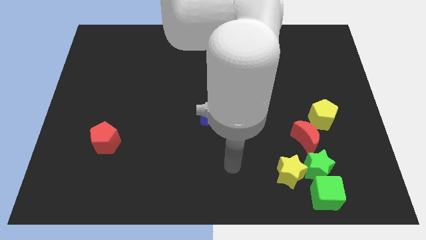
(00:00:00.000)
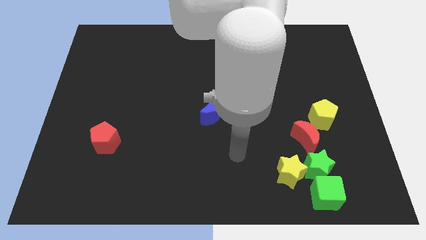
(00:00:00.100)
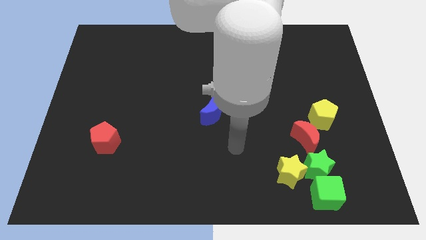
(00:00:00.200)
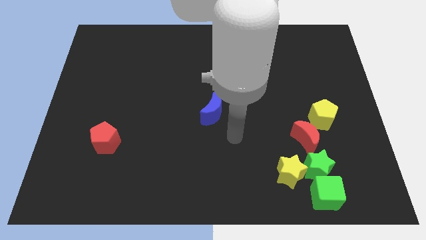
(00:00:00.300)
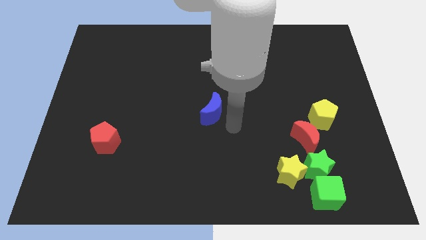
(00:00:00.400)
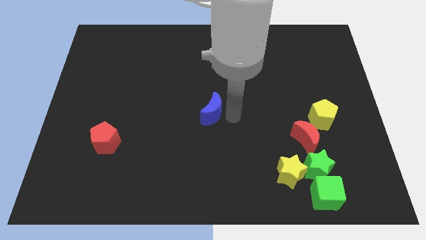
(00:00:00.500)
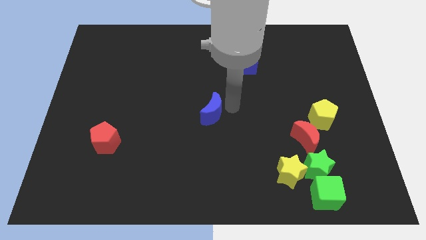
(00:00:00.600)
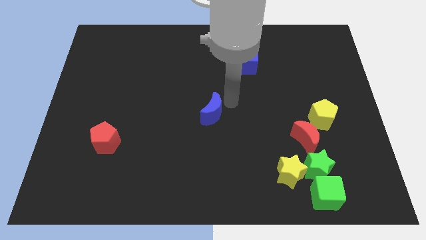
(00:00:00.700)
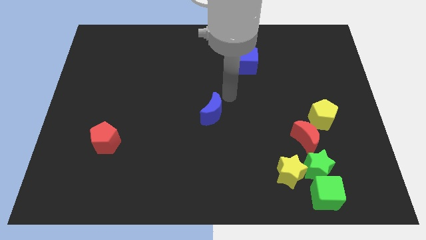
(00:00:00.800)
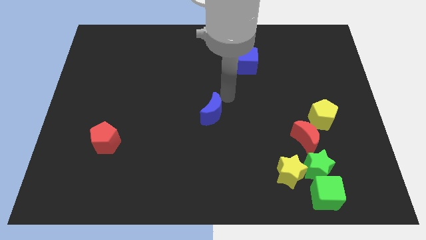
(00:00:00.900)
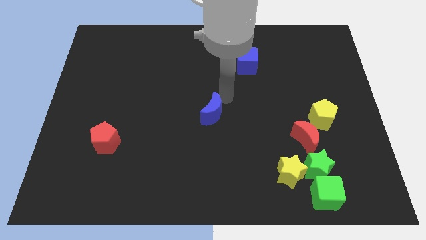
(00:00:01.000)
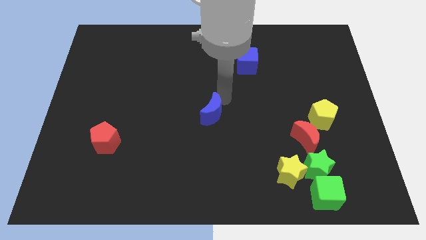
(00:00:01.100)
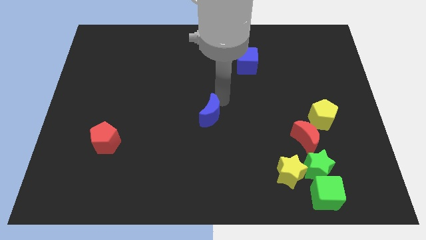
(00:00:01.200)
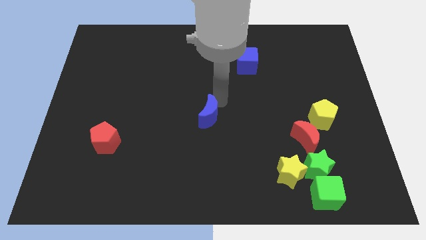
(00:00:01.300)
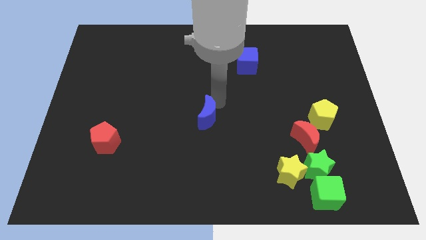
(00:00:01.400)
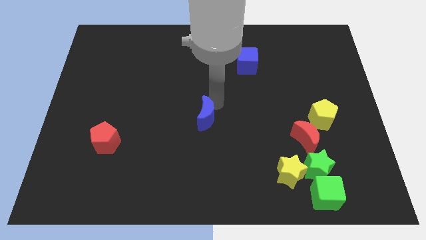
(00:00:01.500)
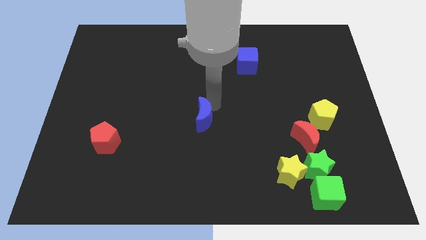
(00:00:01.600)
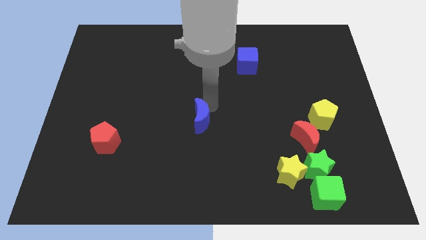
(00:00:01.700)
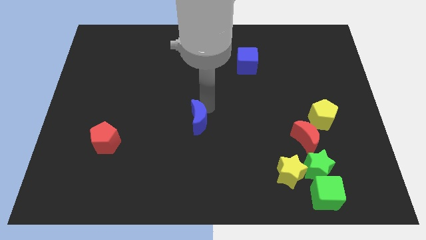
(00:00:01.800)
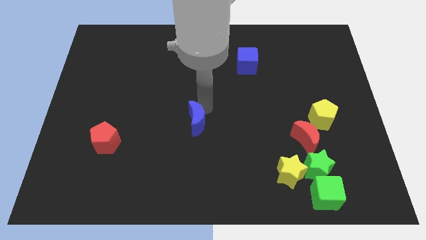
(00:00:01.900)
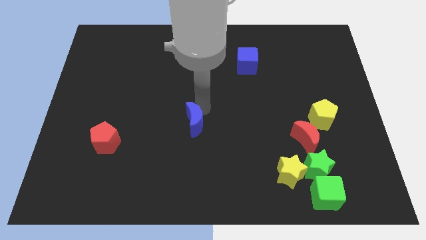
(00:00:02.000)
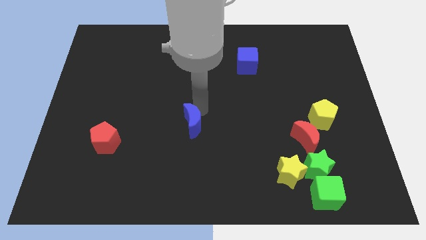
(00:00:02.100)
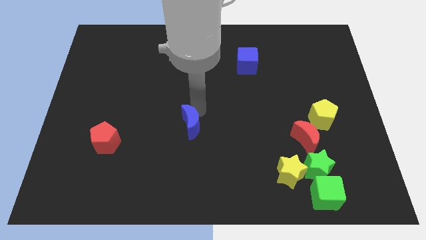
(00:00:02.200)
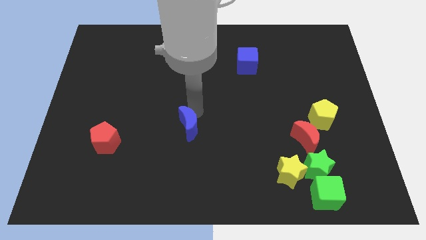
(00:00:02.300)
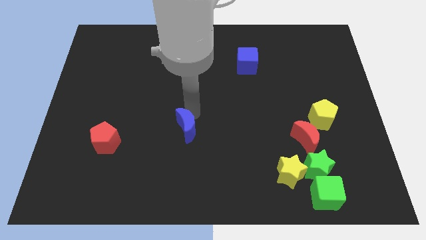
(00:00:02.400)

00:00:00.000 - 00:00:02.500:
push the blue moon a bit diagonally down and left

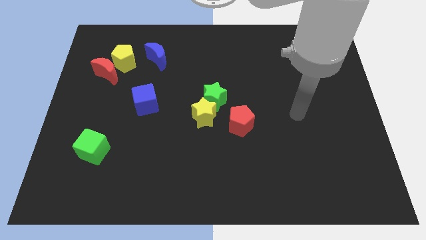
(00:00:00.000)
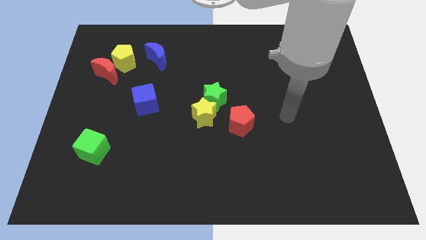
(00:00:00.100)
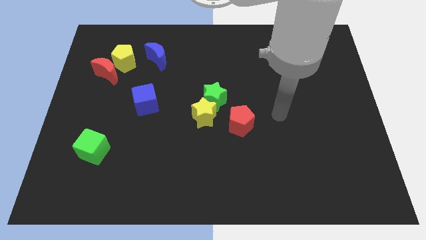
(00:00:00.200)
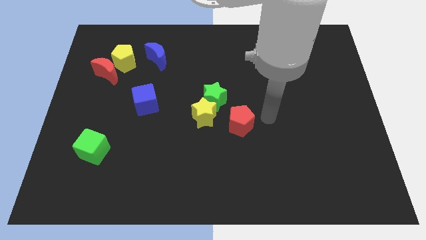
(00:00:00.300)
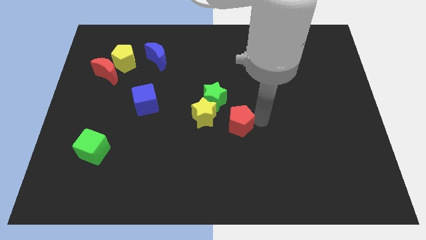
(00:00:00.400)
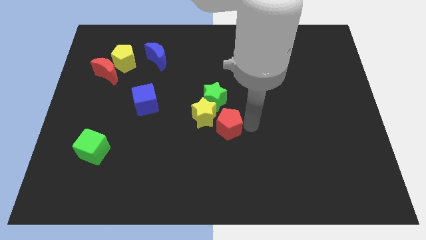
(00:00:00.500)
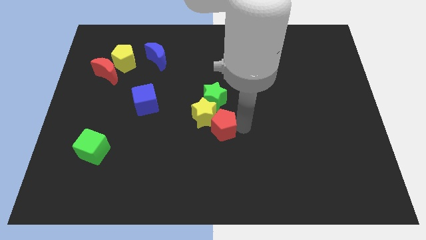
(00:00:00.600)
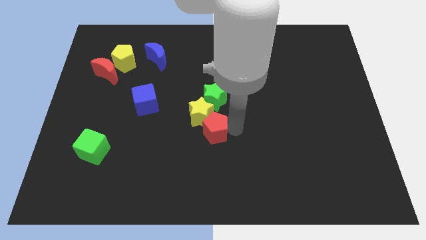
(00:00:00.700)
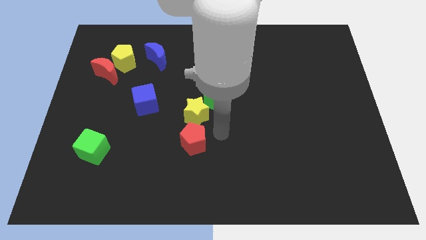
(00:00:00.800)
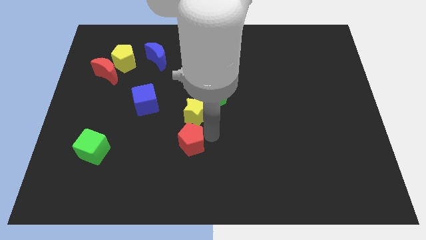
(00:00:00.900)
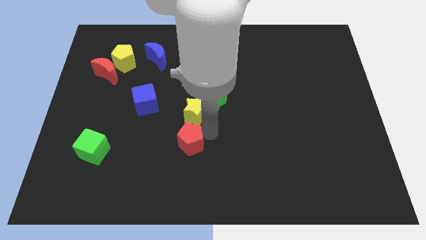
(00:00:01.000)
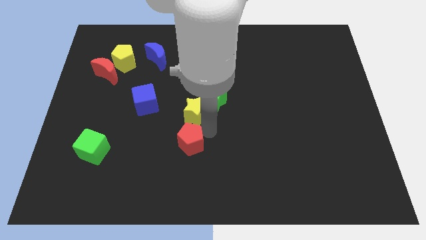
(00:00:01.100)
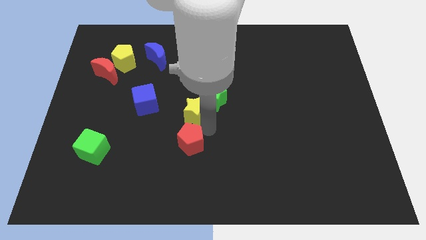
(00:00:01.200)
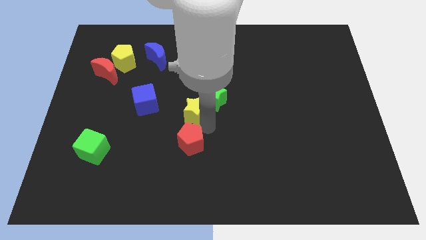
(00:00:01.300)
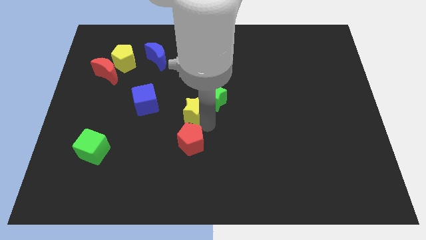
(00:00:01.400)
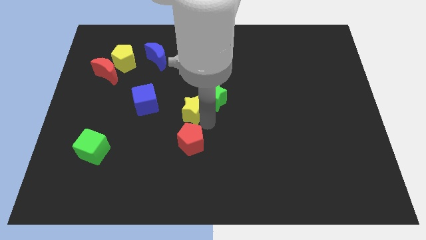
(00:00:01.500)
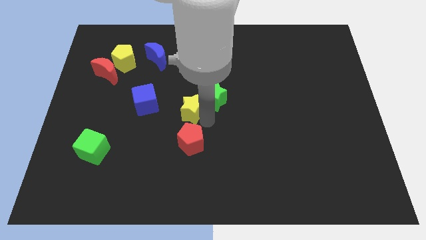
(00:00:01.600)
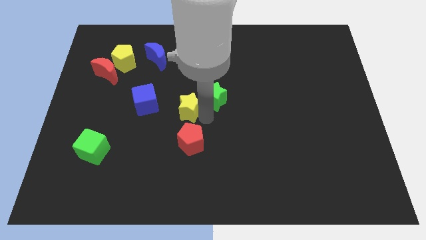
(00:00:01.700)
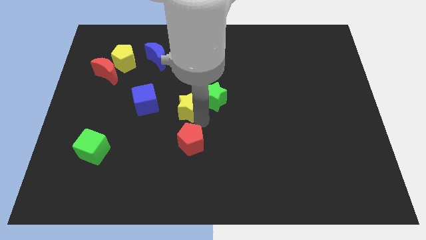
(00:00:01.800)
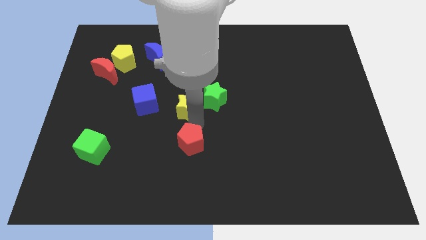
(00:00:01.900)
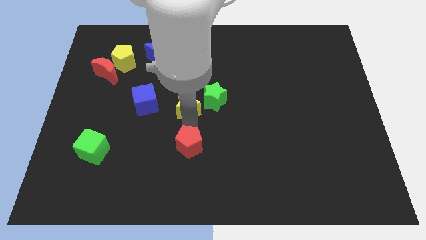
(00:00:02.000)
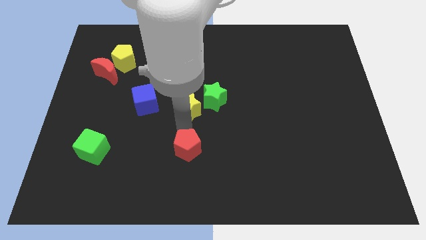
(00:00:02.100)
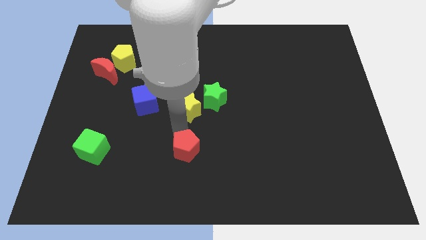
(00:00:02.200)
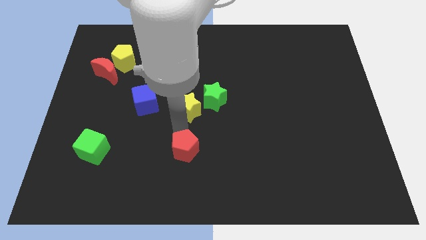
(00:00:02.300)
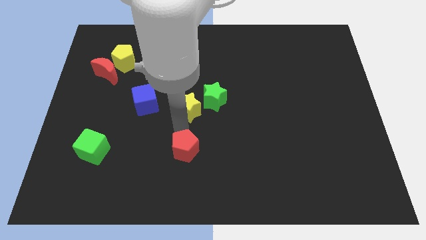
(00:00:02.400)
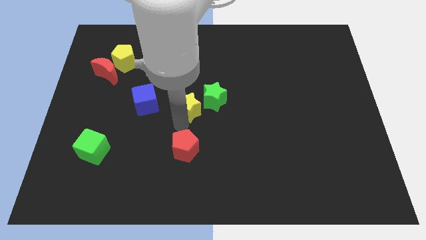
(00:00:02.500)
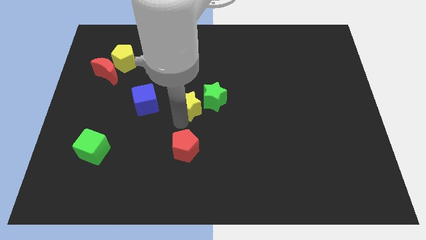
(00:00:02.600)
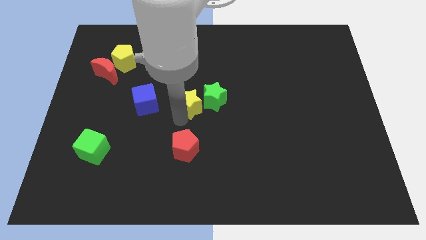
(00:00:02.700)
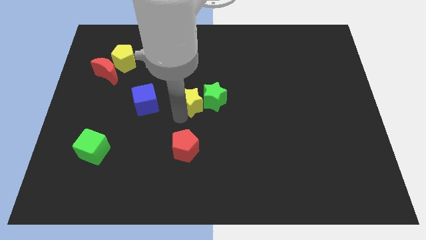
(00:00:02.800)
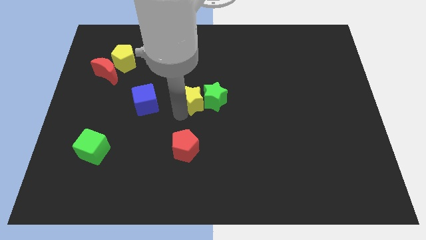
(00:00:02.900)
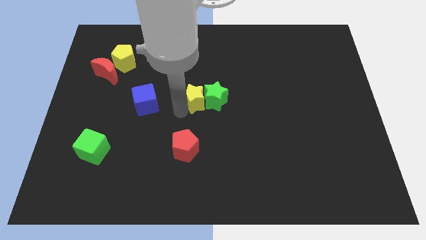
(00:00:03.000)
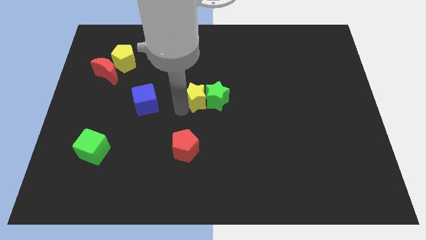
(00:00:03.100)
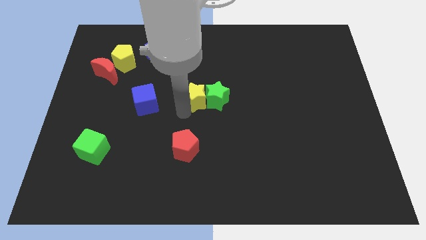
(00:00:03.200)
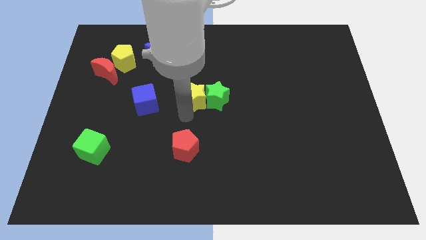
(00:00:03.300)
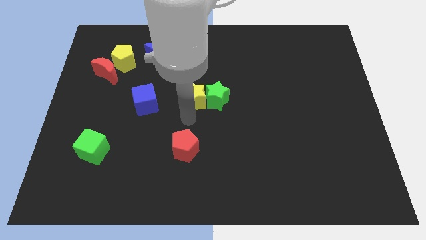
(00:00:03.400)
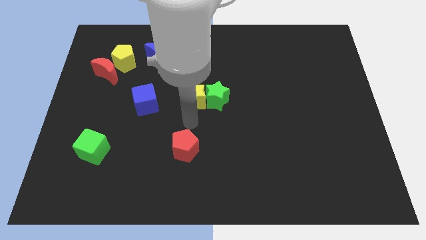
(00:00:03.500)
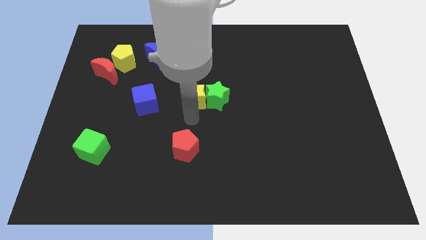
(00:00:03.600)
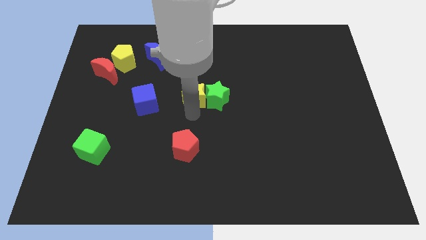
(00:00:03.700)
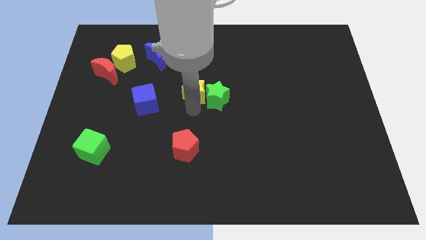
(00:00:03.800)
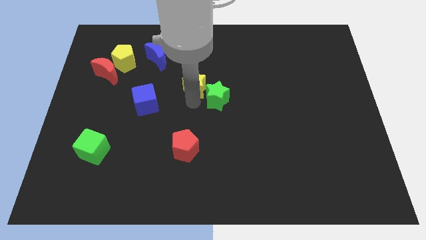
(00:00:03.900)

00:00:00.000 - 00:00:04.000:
slightly push the yellow star up

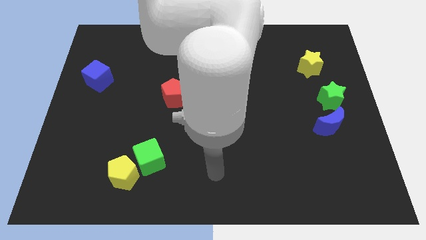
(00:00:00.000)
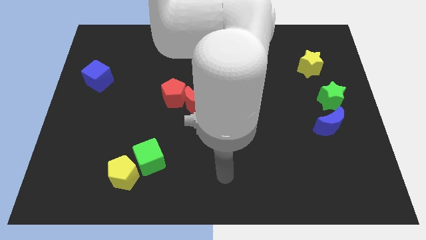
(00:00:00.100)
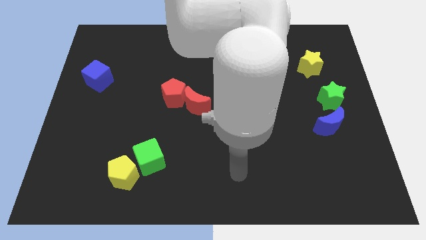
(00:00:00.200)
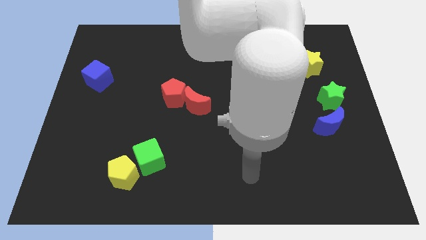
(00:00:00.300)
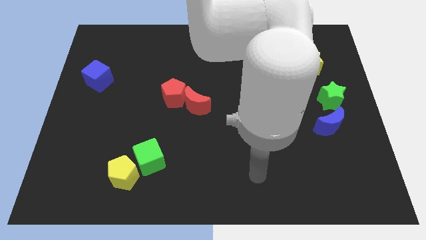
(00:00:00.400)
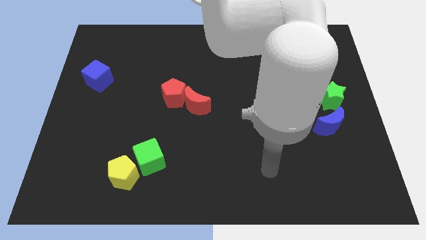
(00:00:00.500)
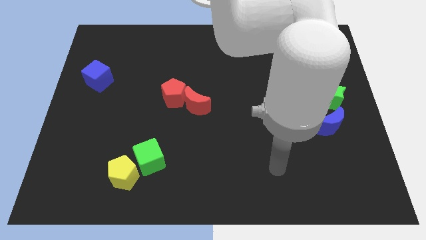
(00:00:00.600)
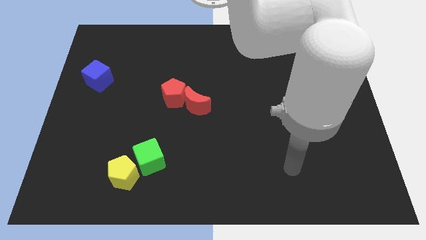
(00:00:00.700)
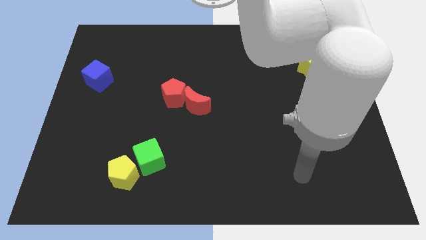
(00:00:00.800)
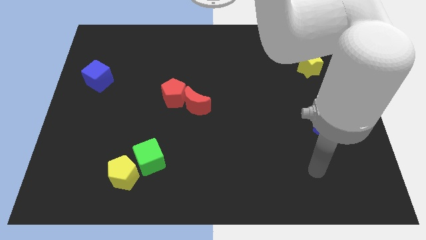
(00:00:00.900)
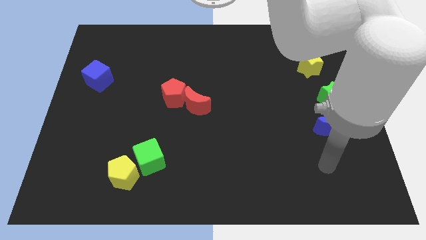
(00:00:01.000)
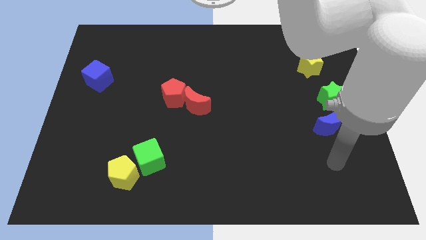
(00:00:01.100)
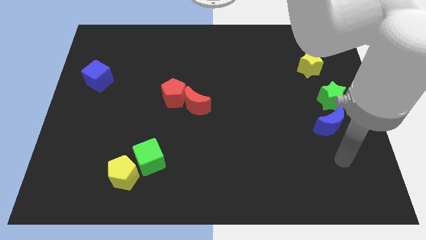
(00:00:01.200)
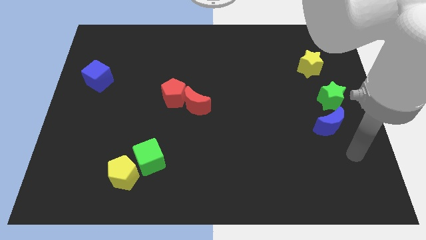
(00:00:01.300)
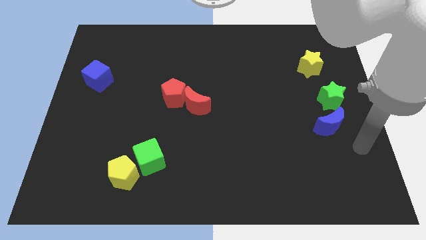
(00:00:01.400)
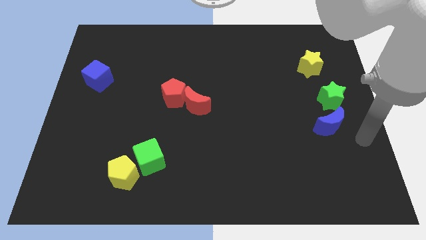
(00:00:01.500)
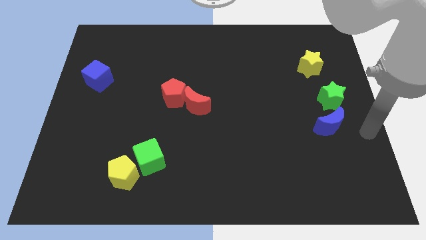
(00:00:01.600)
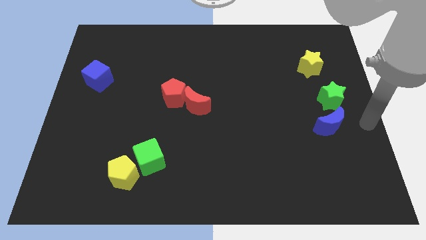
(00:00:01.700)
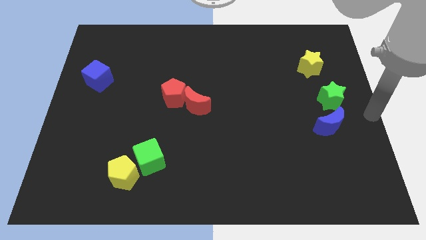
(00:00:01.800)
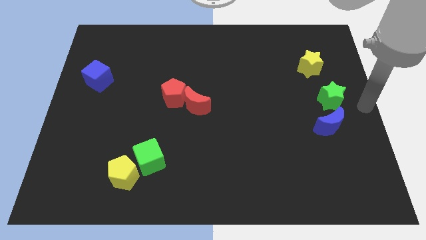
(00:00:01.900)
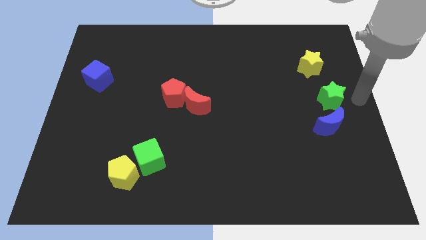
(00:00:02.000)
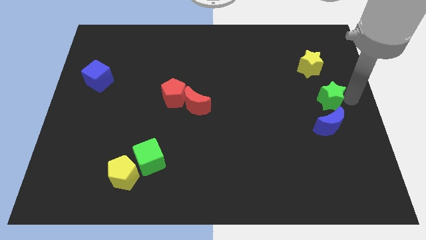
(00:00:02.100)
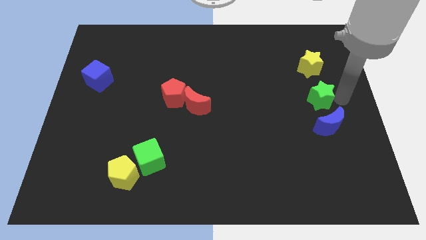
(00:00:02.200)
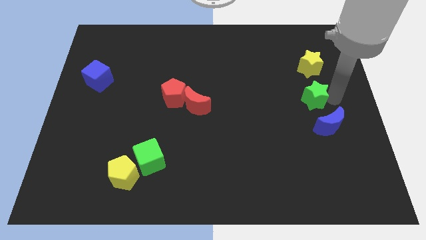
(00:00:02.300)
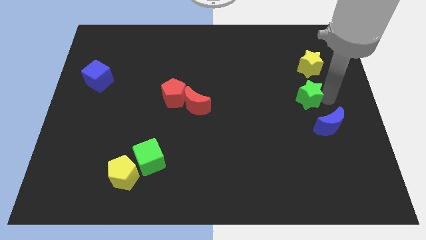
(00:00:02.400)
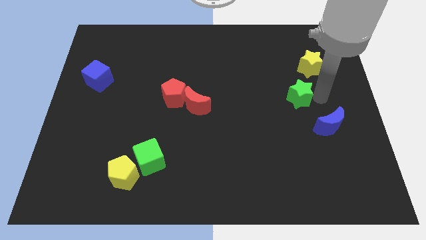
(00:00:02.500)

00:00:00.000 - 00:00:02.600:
slightly push the green star left
